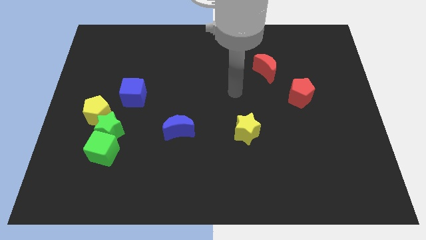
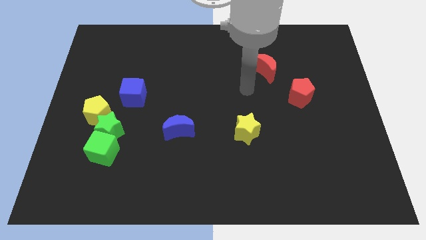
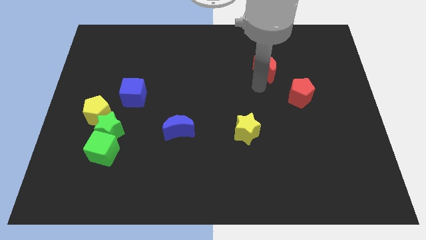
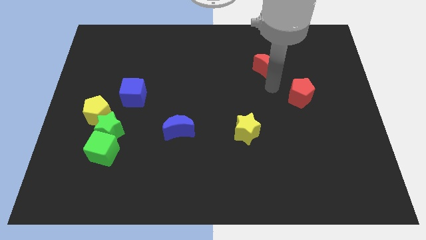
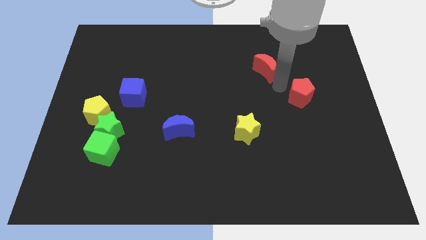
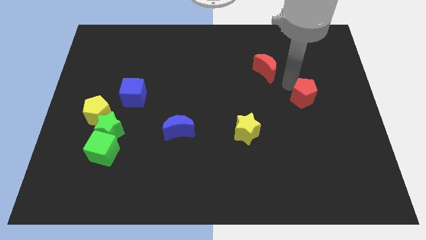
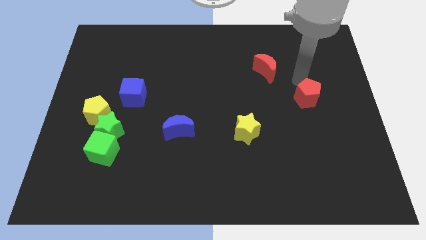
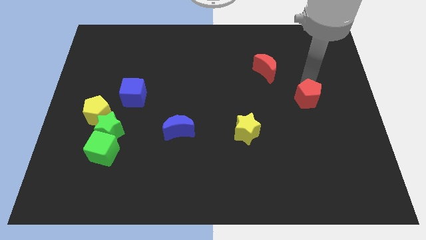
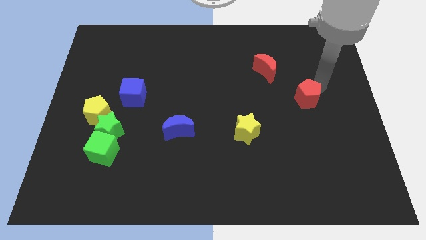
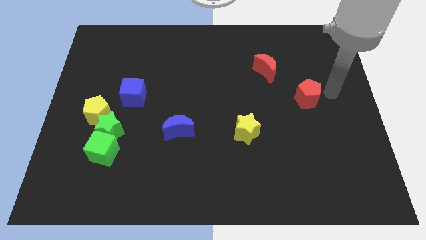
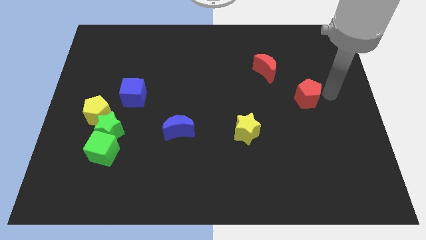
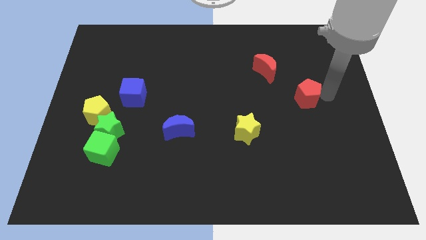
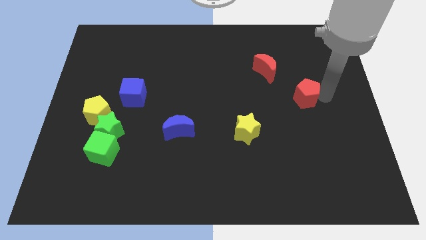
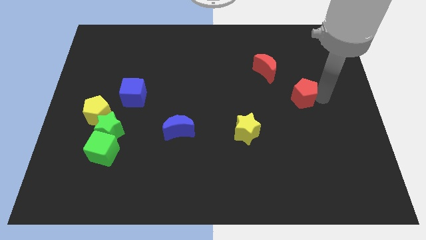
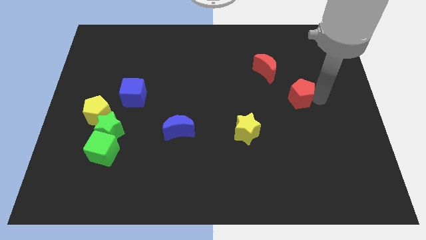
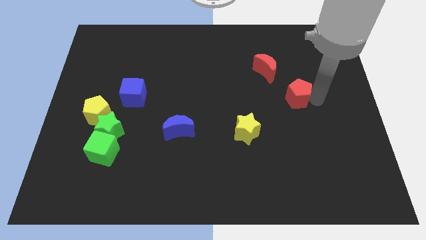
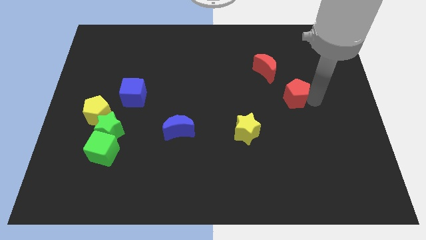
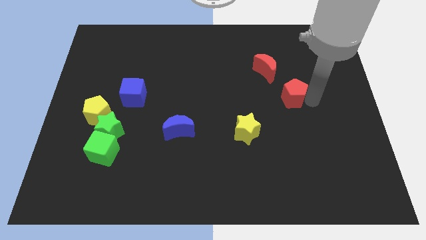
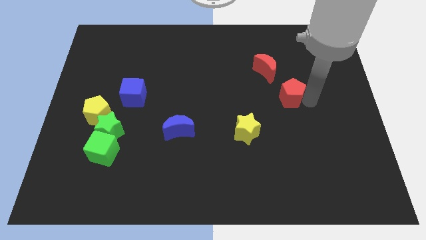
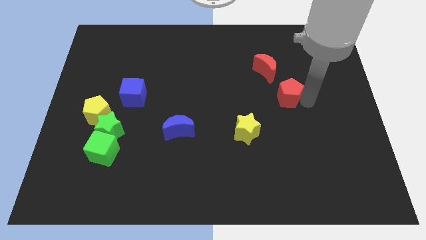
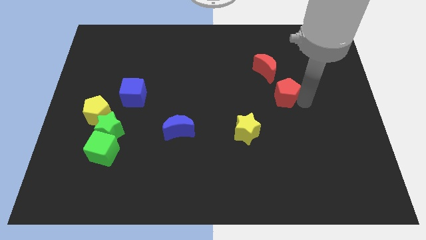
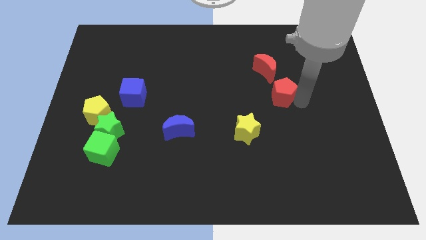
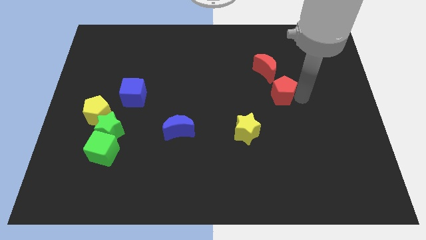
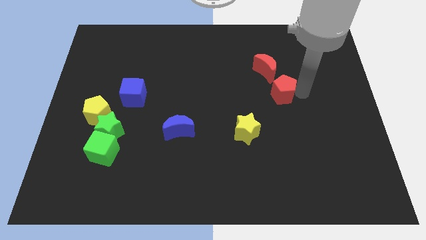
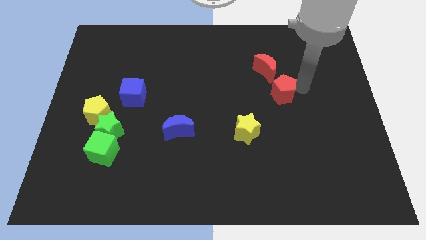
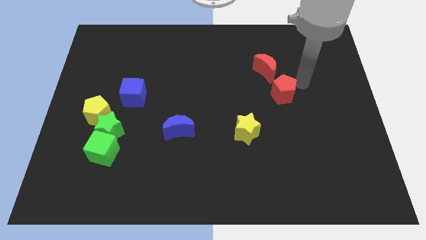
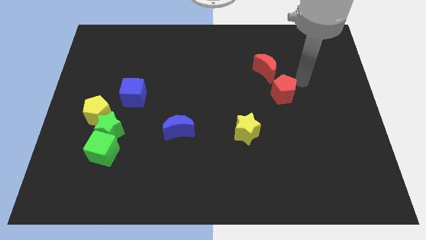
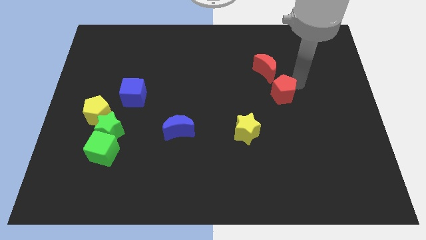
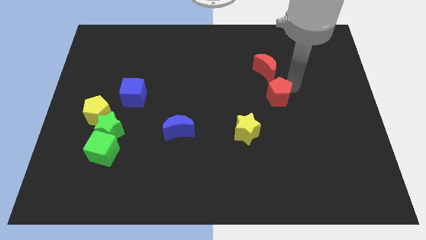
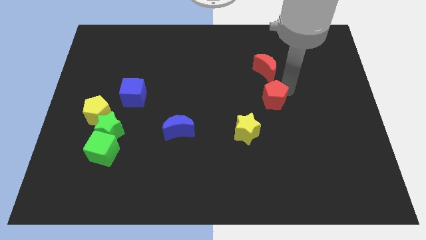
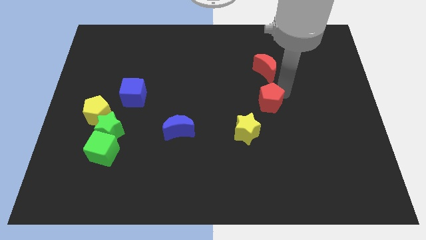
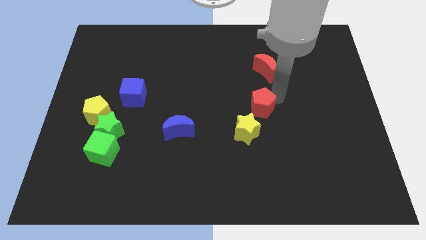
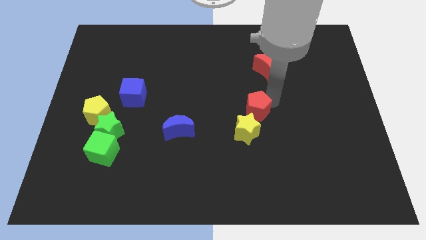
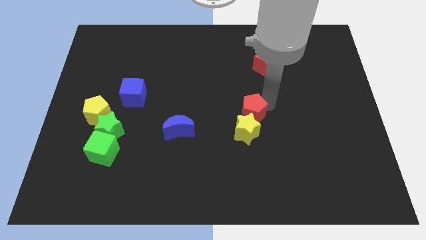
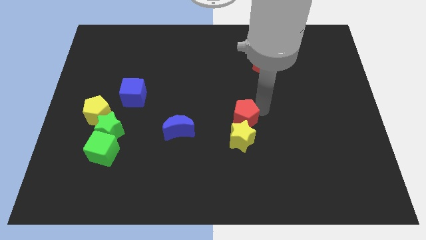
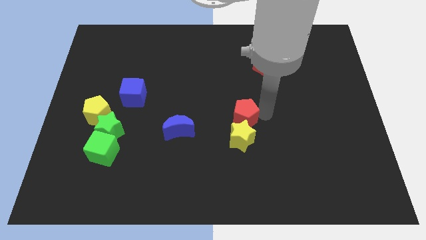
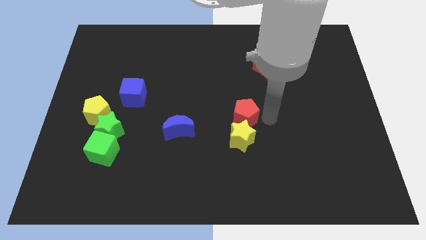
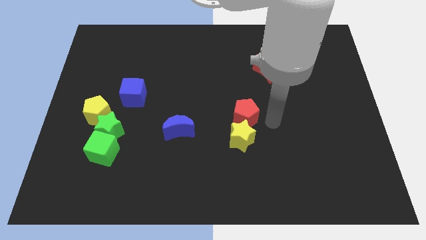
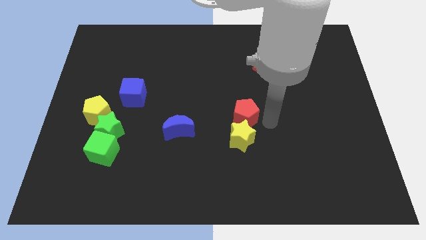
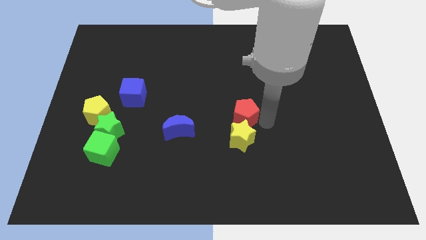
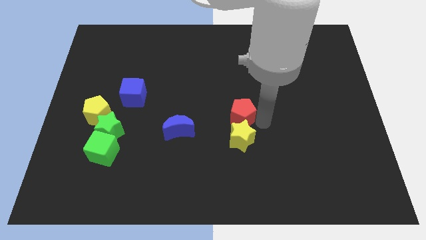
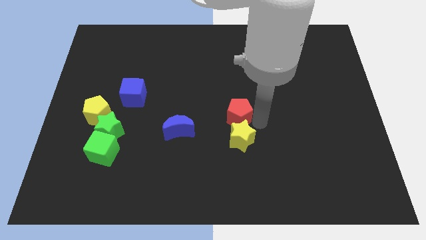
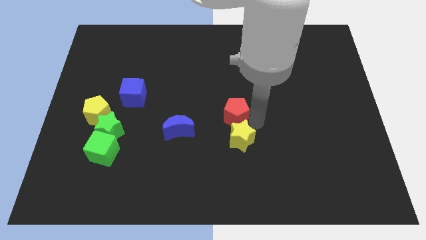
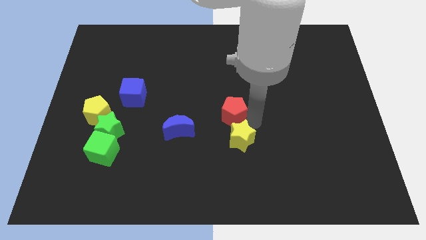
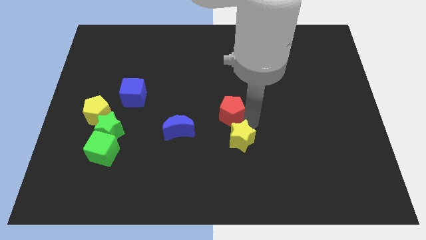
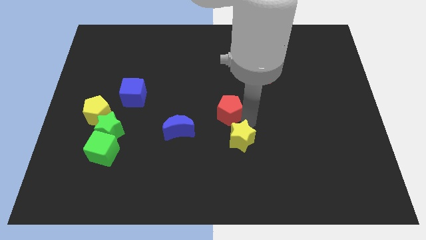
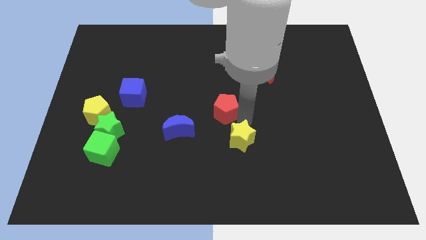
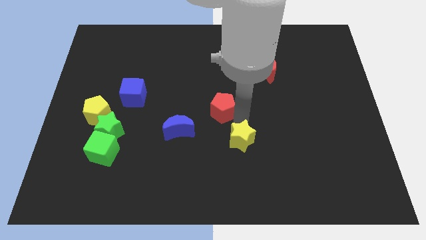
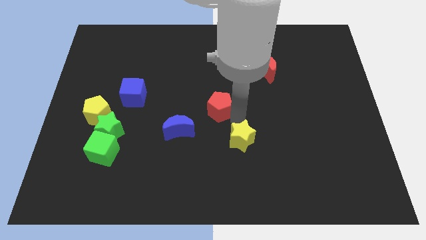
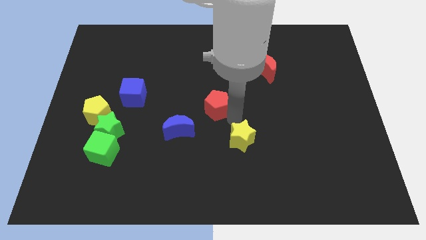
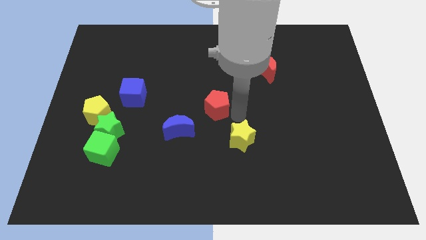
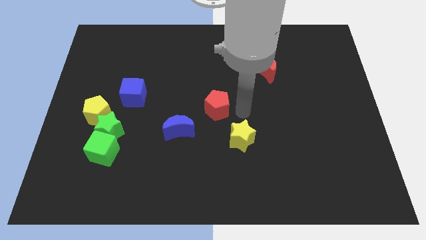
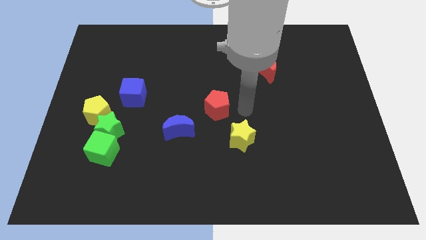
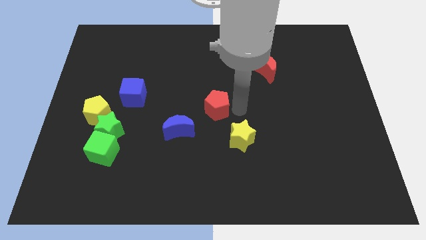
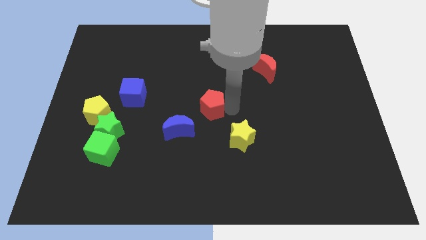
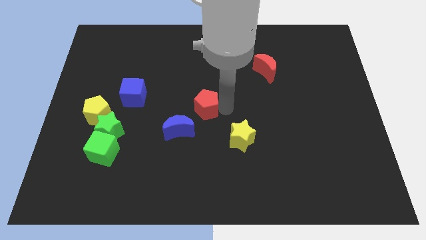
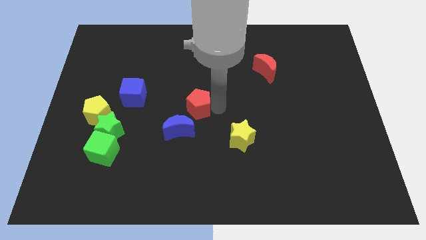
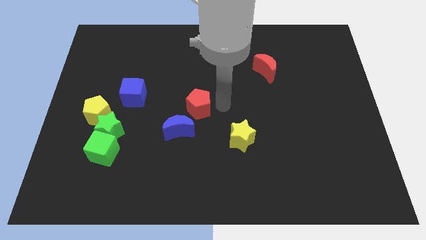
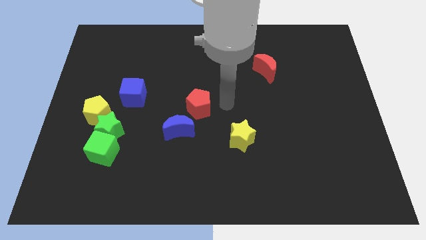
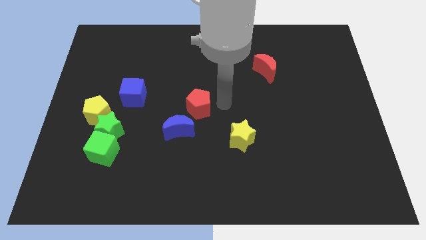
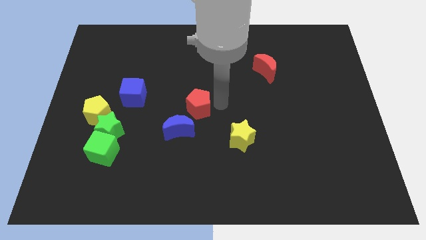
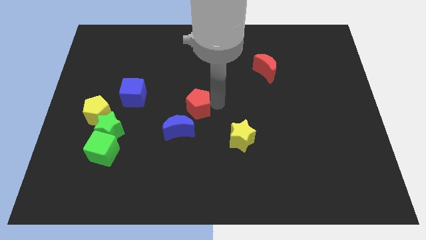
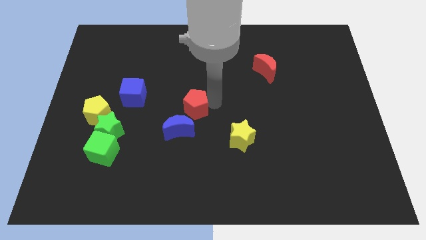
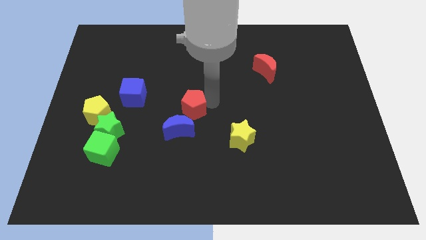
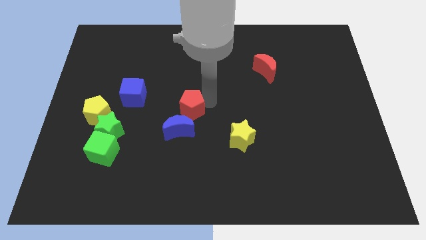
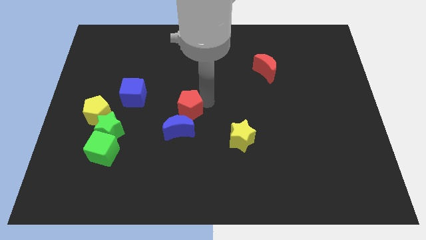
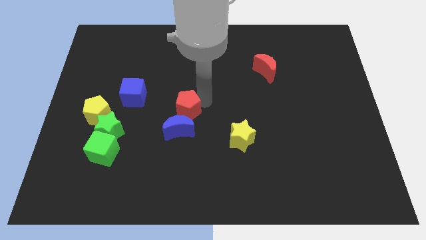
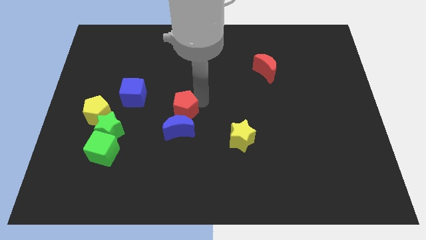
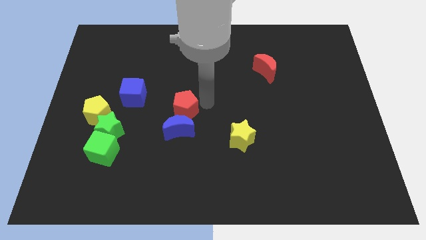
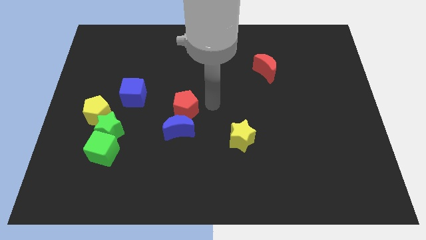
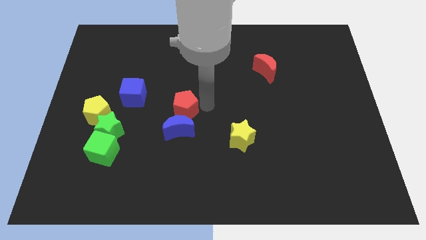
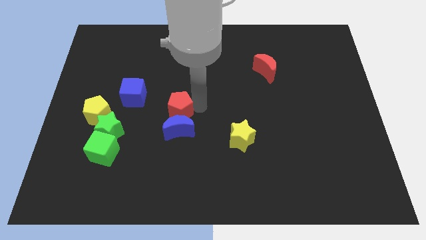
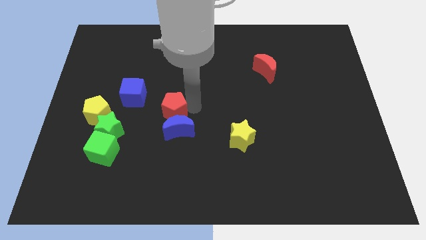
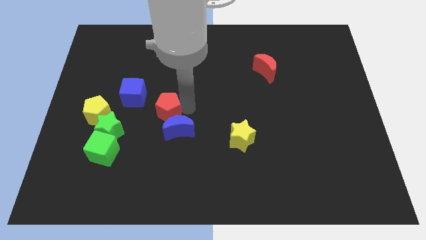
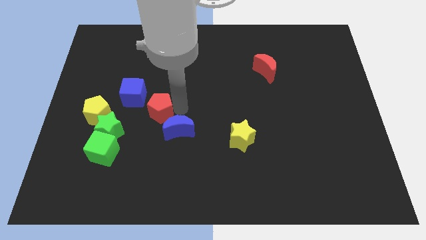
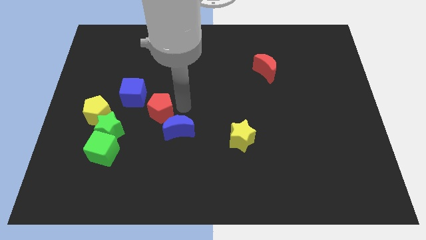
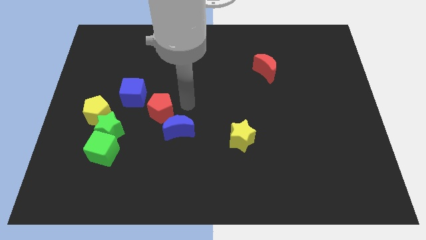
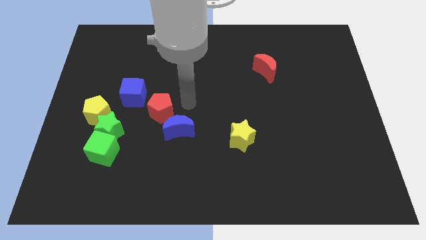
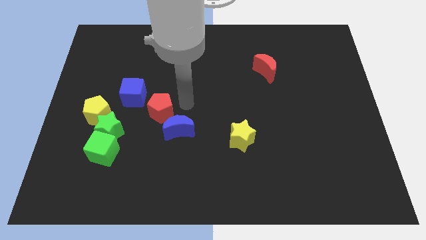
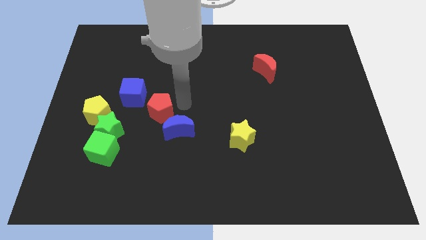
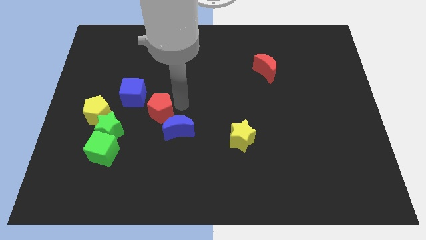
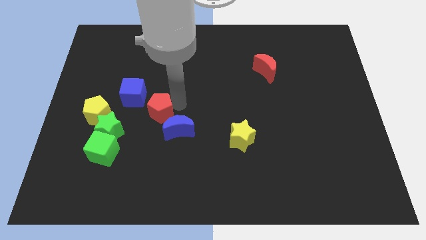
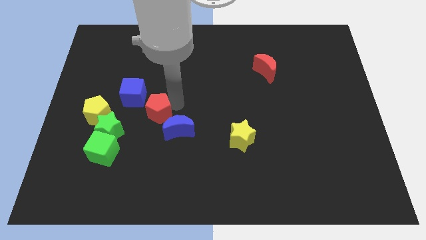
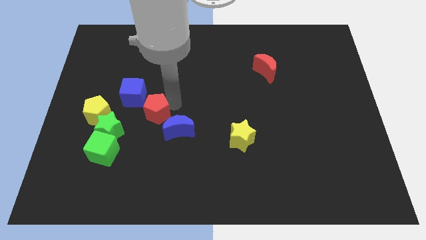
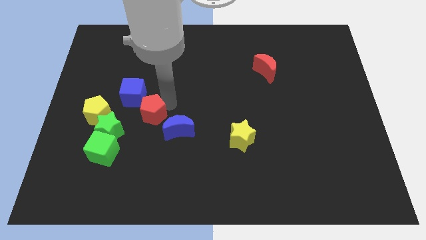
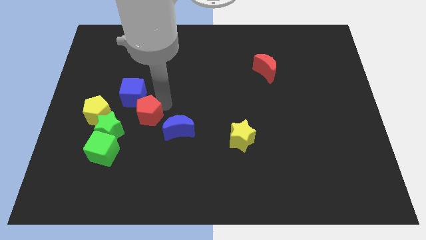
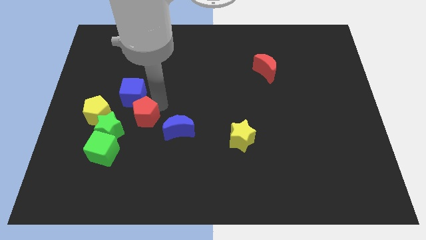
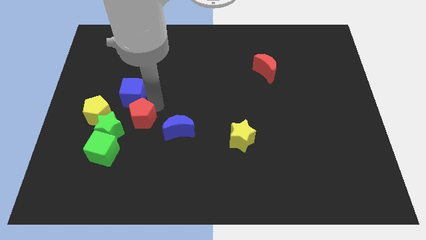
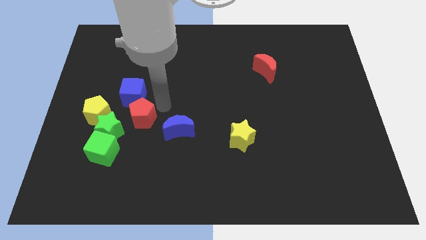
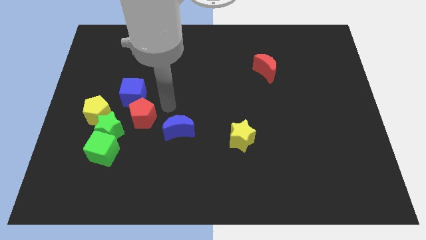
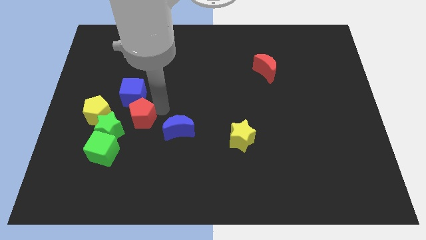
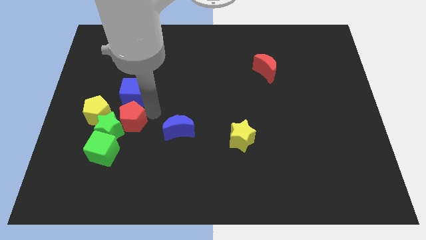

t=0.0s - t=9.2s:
push the red pentagon next to the green star
